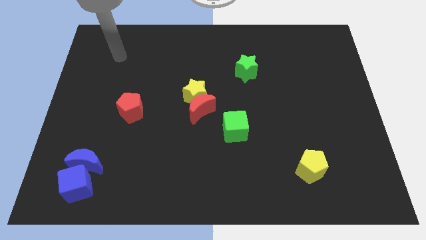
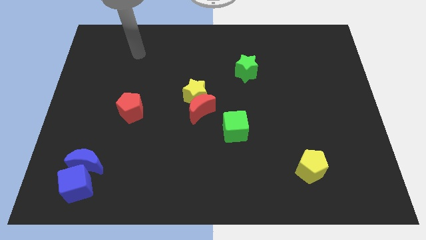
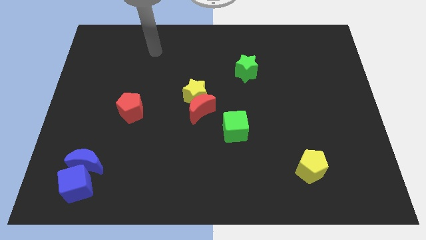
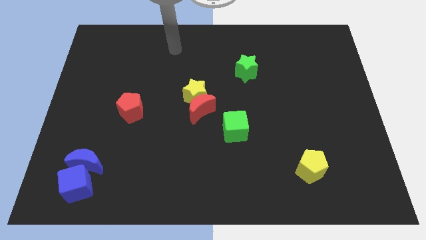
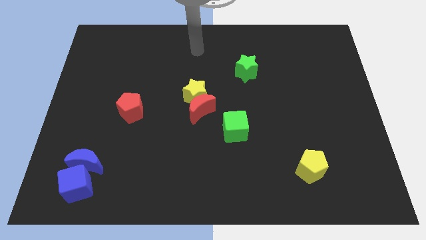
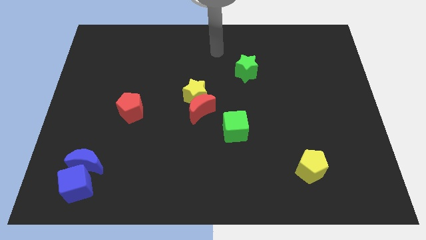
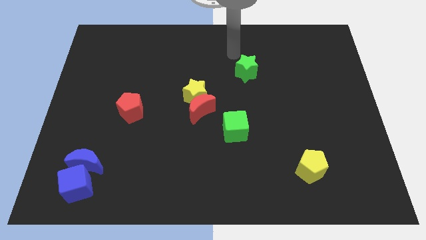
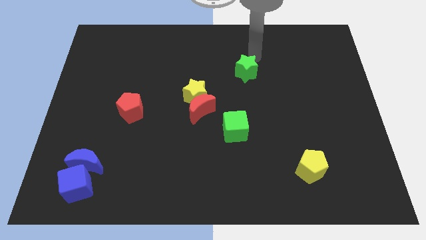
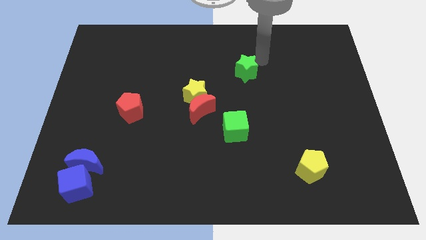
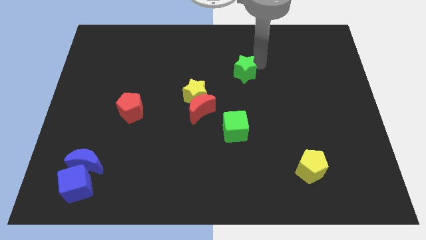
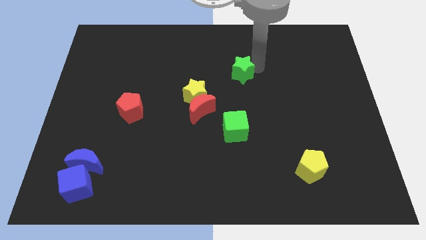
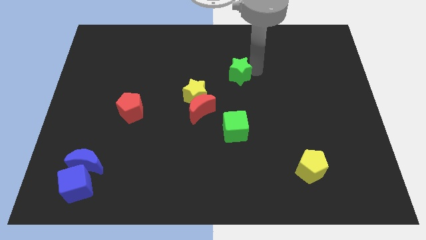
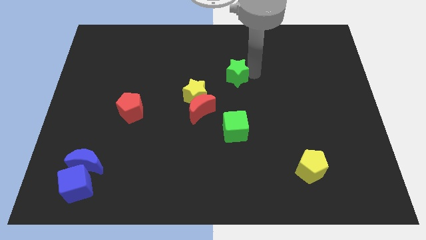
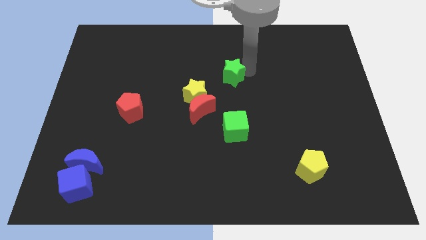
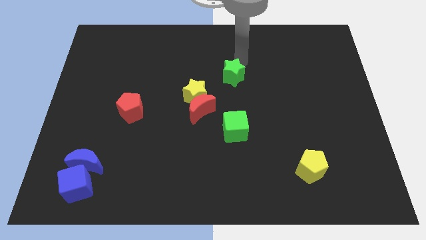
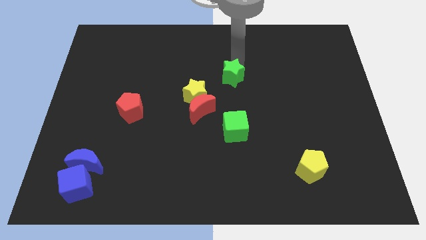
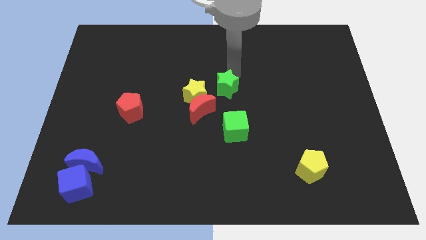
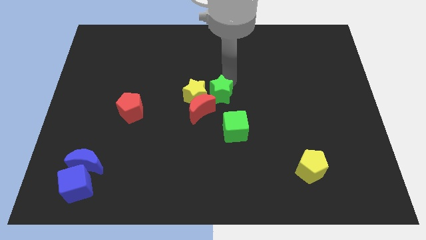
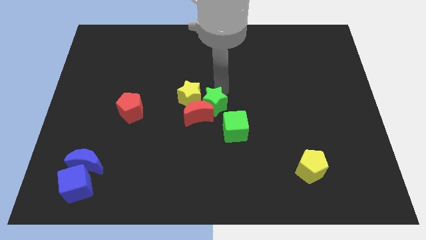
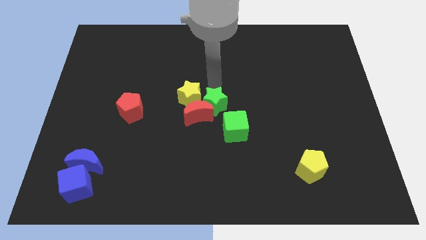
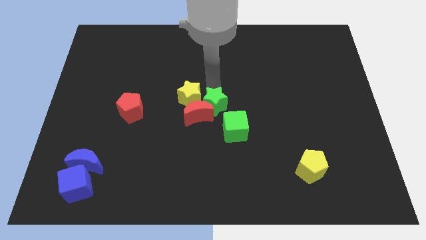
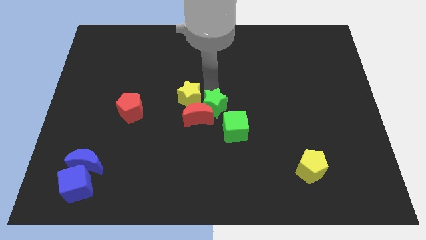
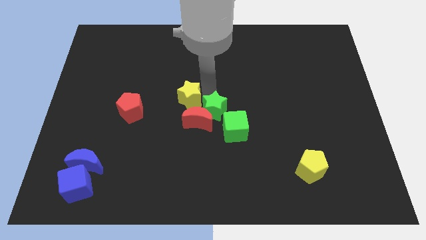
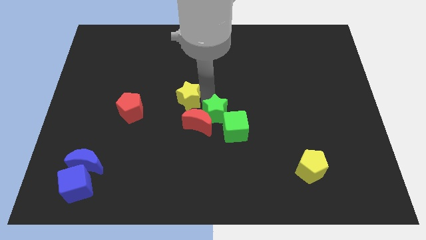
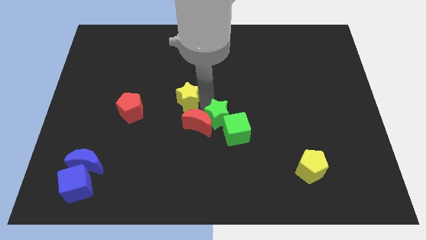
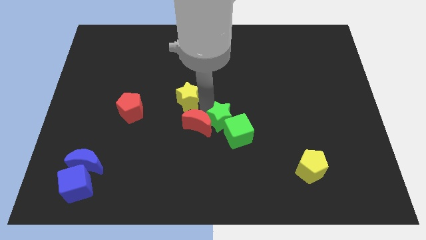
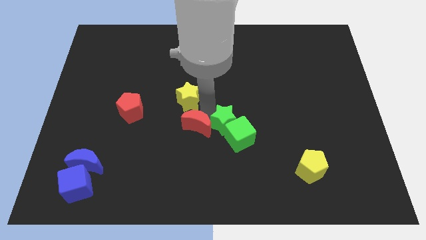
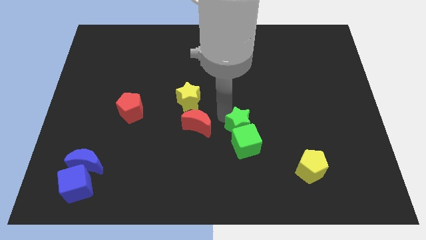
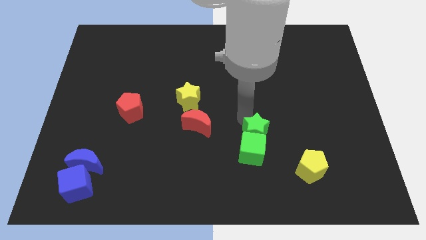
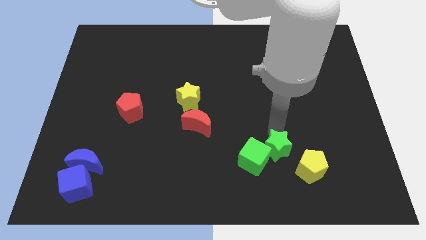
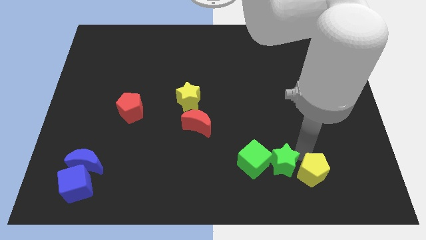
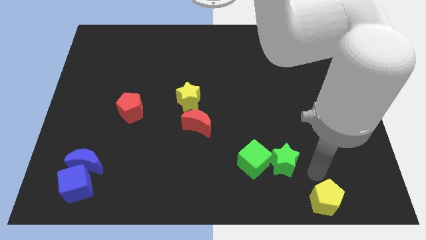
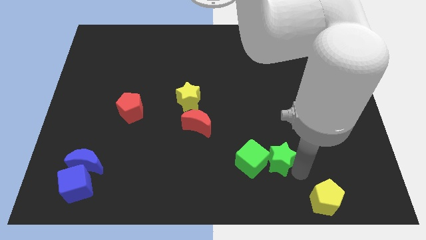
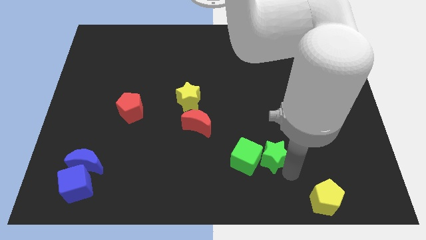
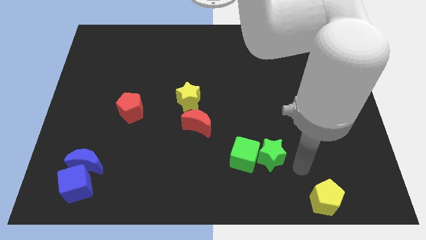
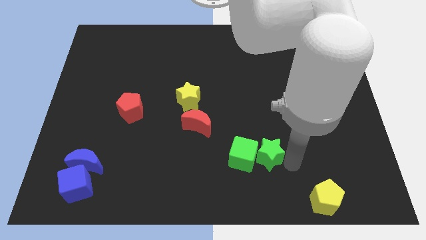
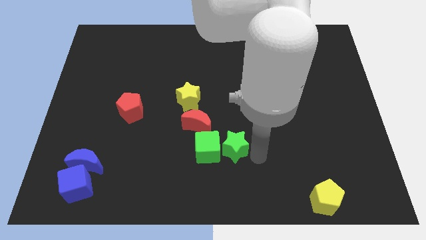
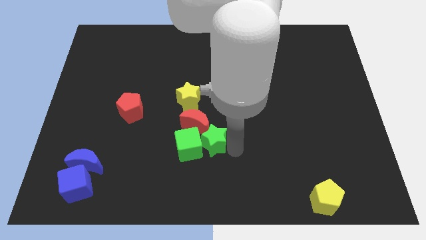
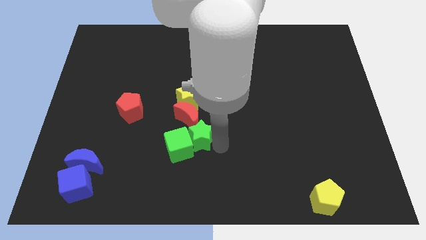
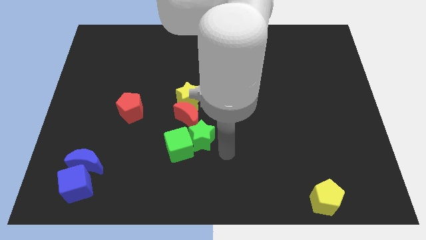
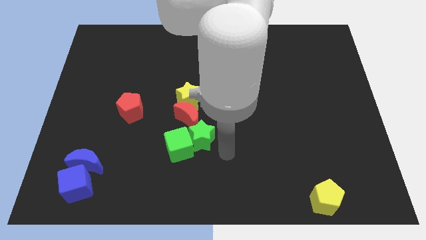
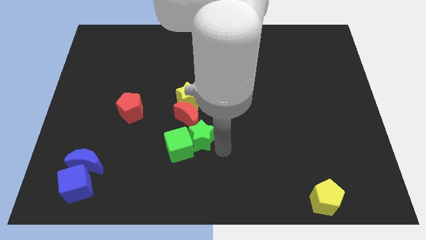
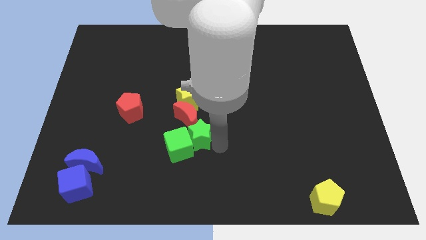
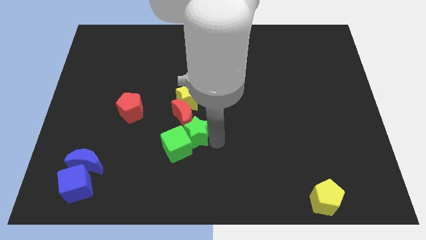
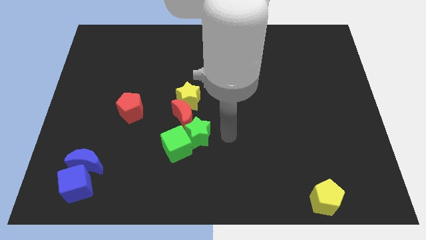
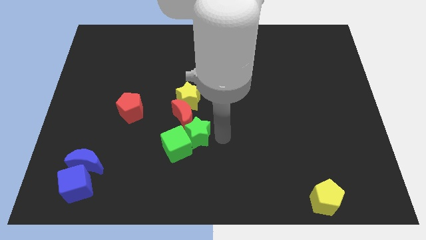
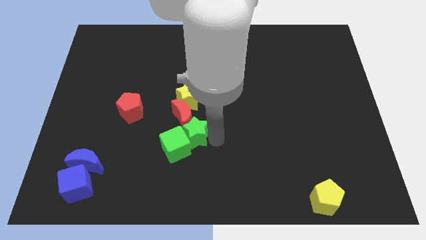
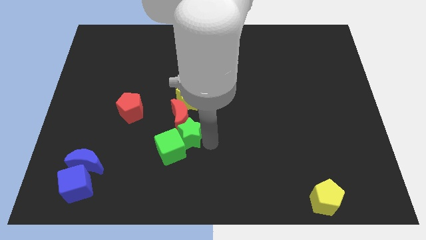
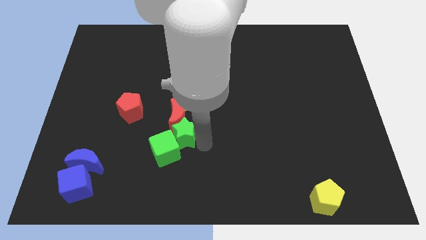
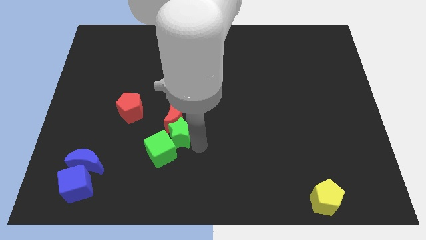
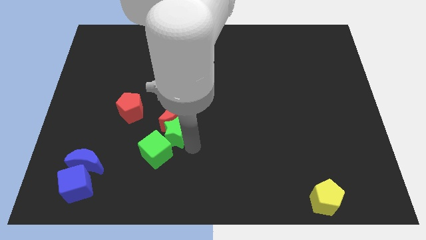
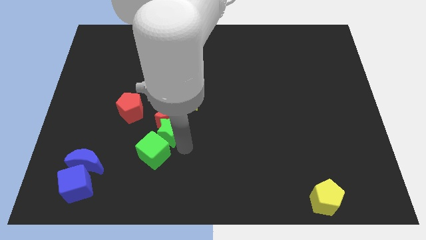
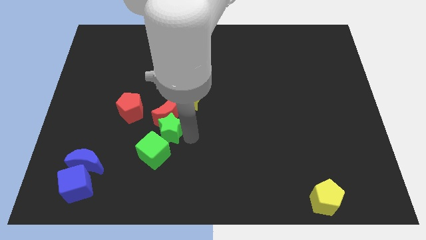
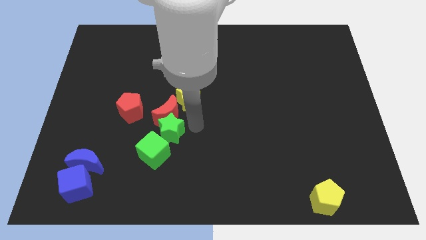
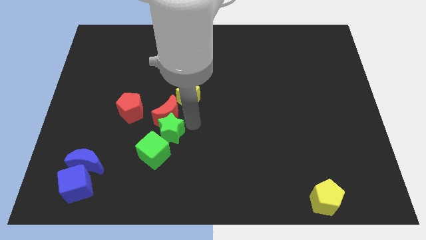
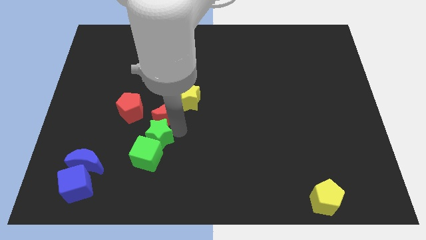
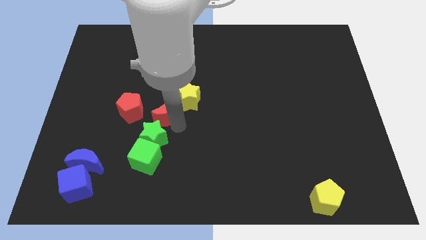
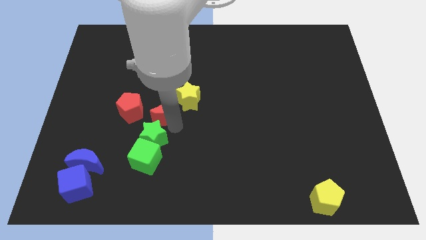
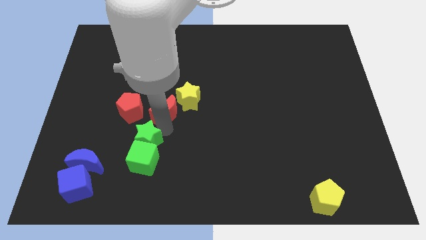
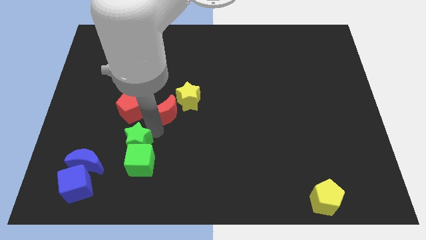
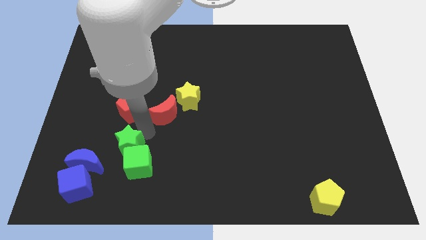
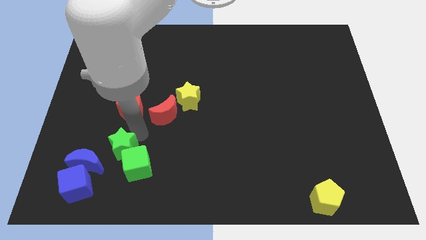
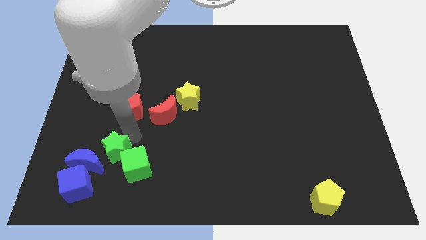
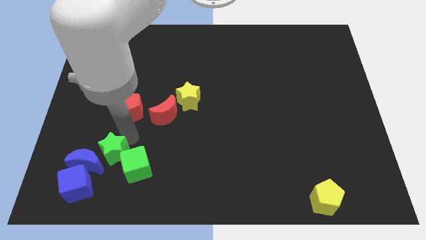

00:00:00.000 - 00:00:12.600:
move the green star next to the blue moon

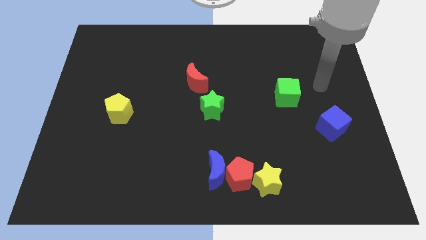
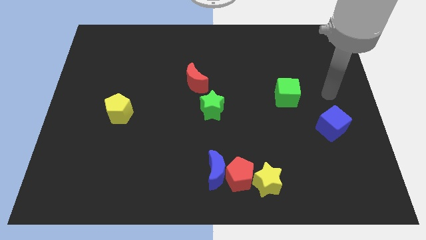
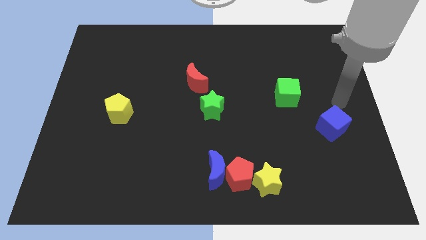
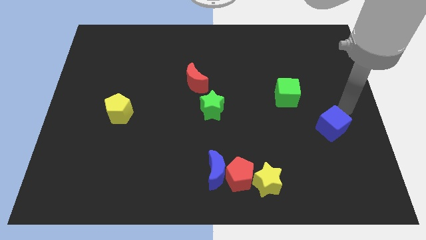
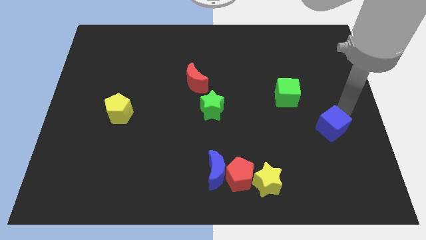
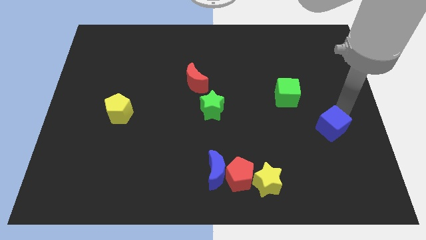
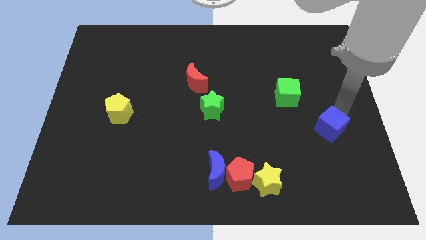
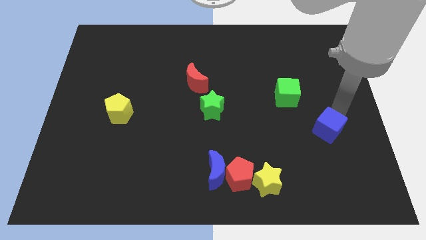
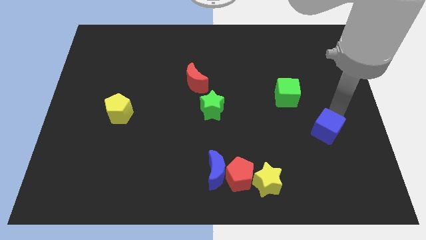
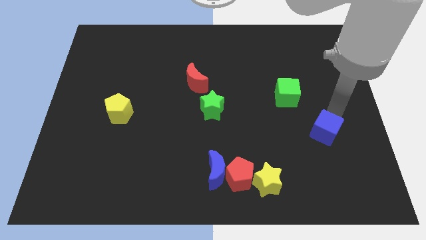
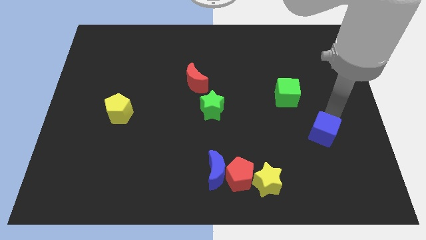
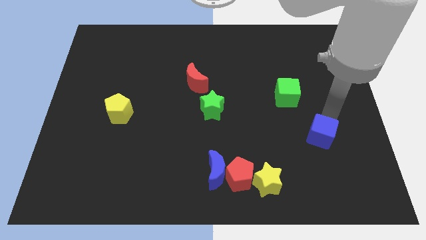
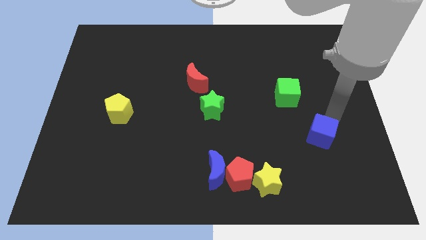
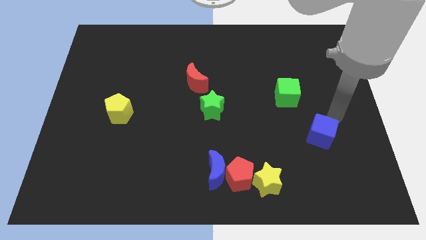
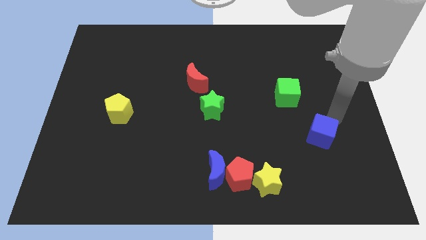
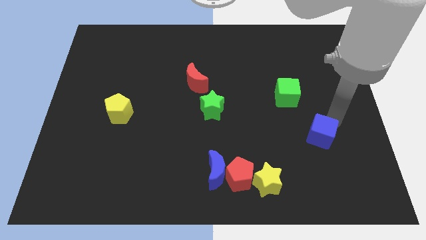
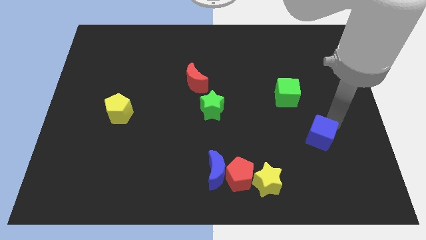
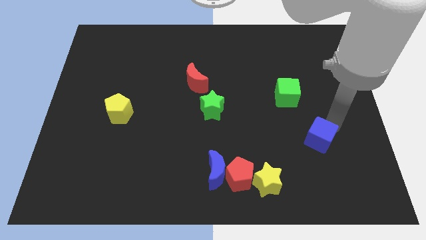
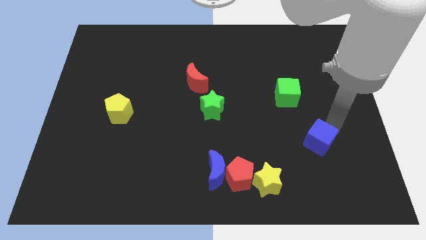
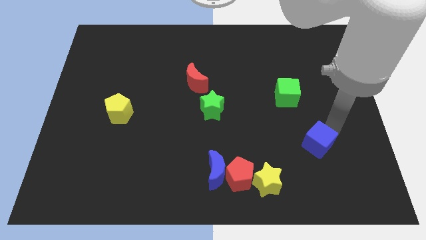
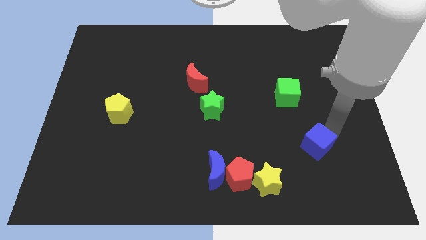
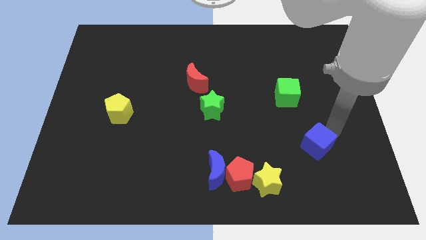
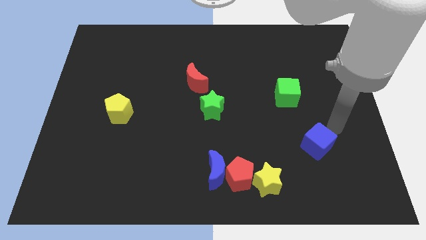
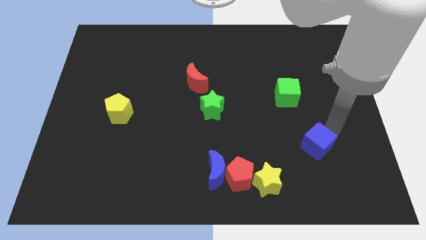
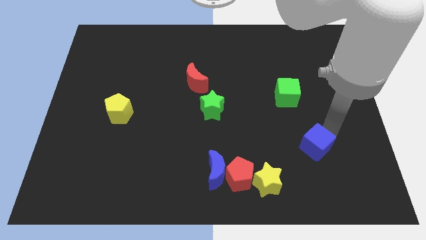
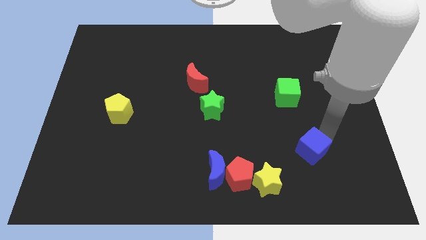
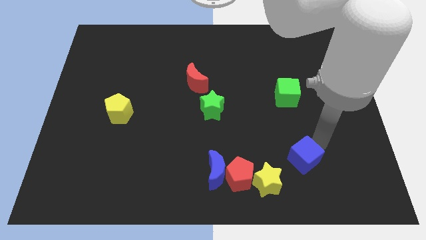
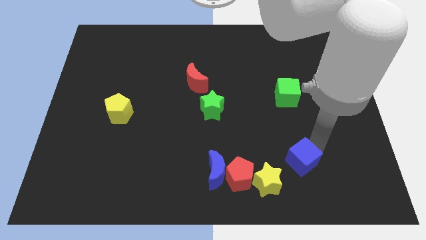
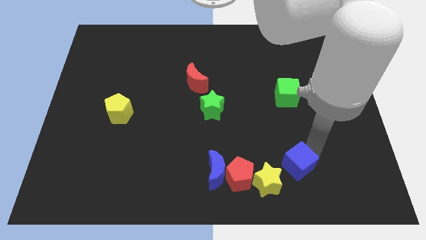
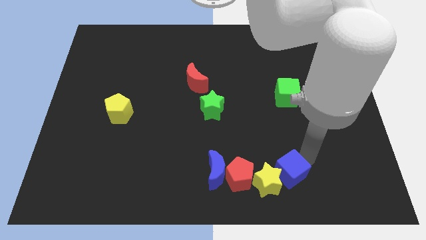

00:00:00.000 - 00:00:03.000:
slide the blue cube next to the yellow star
